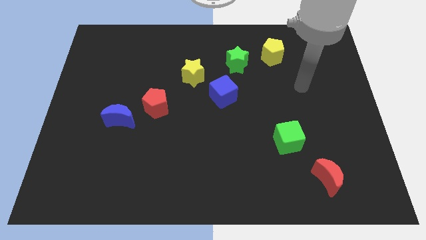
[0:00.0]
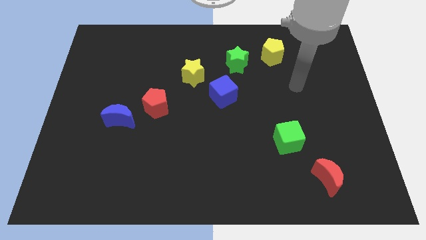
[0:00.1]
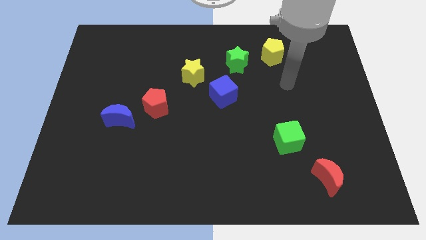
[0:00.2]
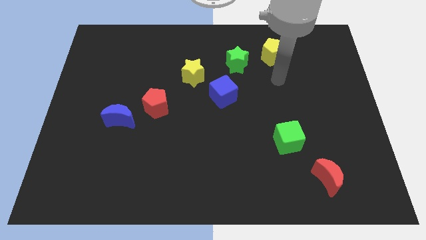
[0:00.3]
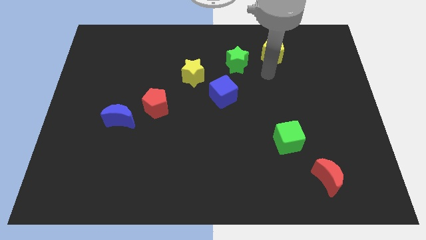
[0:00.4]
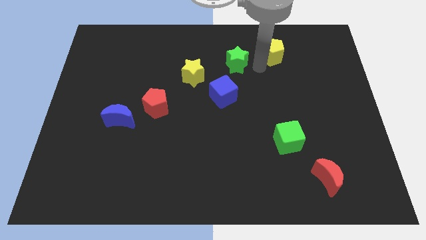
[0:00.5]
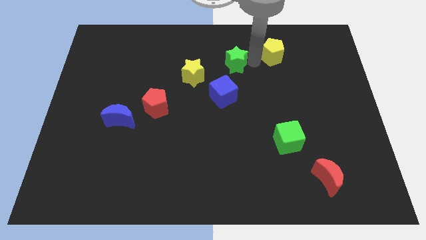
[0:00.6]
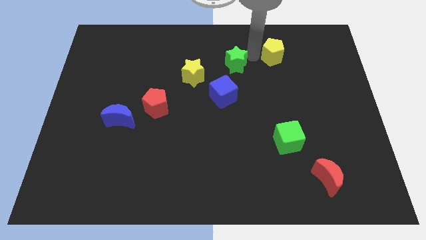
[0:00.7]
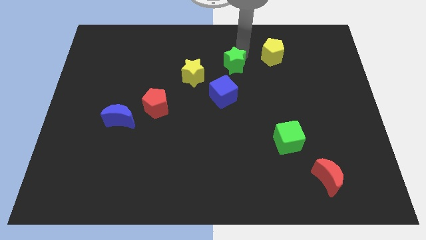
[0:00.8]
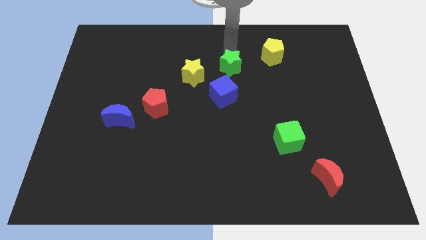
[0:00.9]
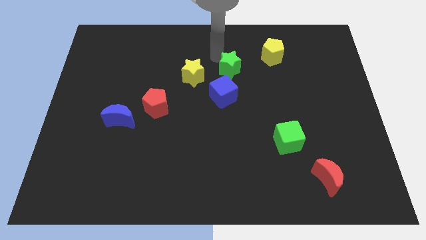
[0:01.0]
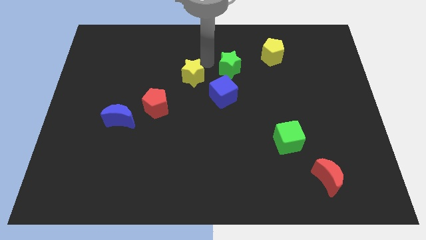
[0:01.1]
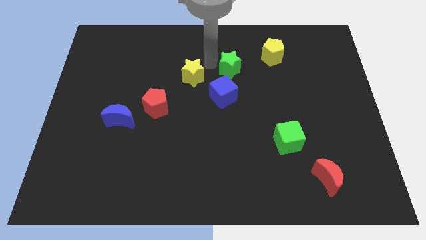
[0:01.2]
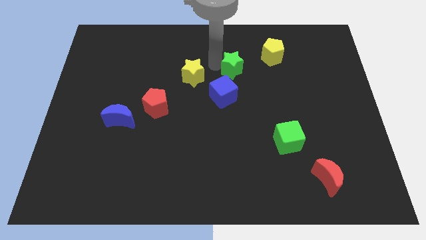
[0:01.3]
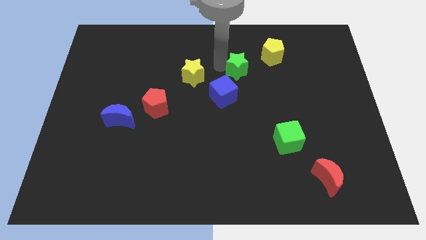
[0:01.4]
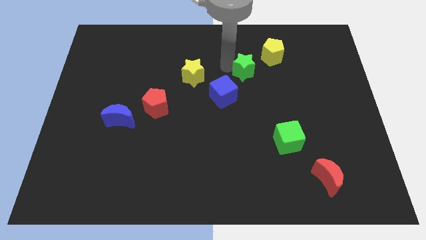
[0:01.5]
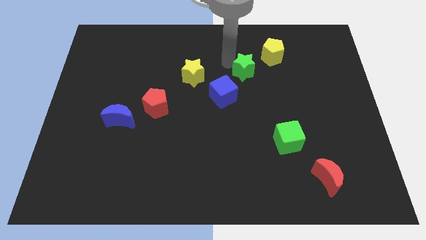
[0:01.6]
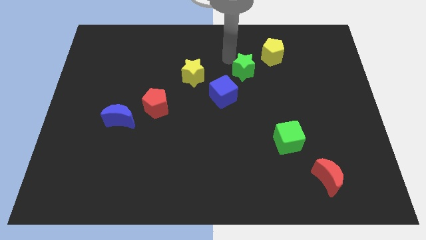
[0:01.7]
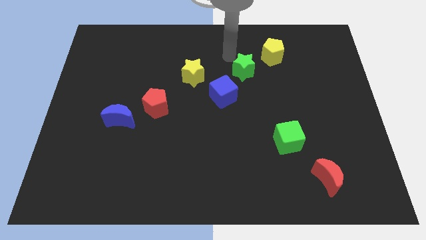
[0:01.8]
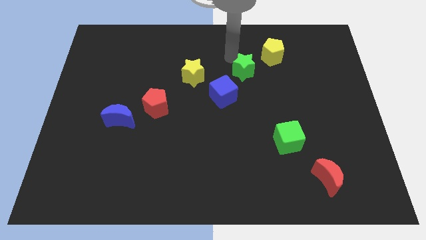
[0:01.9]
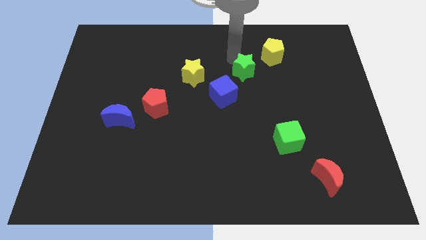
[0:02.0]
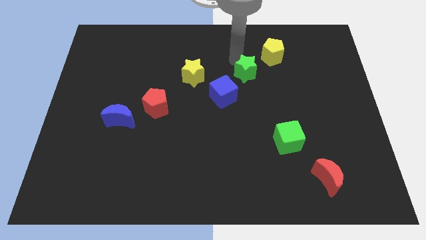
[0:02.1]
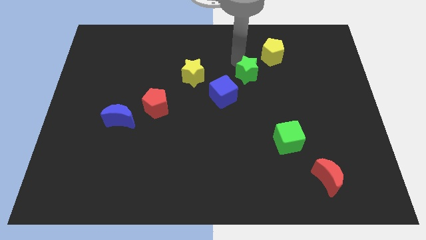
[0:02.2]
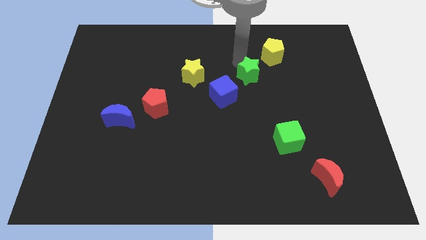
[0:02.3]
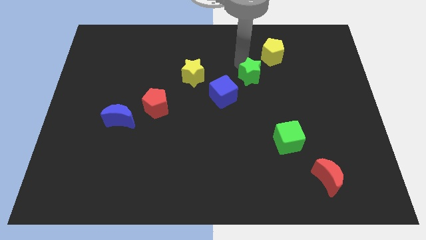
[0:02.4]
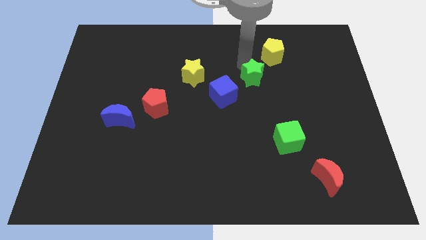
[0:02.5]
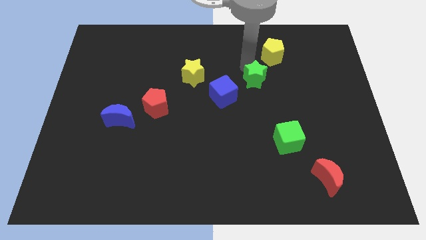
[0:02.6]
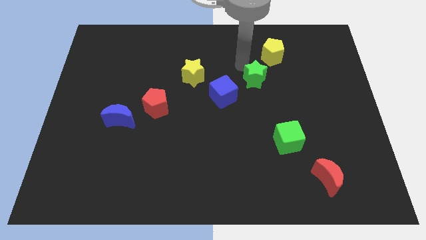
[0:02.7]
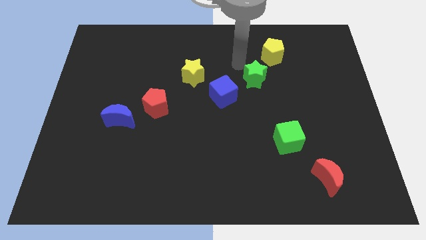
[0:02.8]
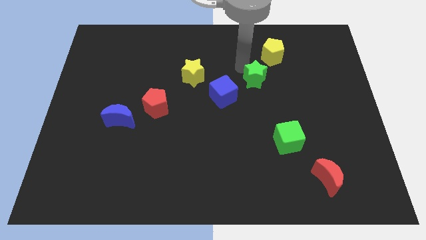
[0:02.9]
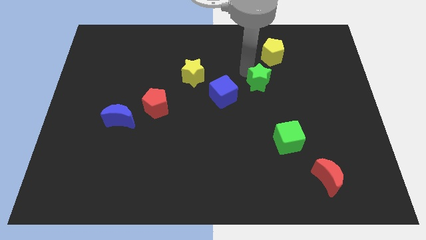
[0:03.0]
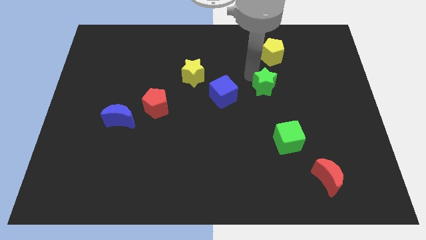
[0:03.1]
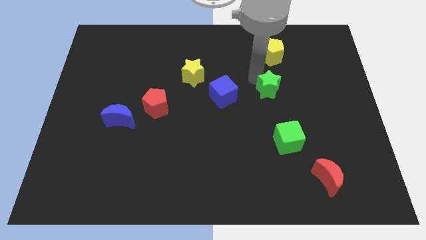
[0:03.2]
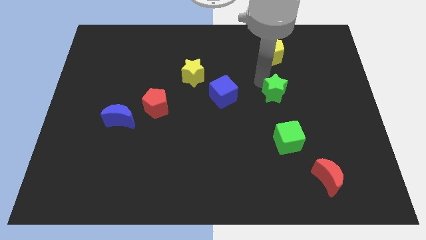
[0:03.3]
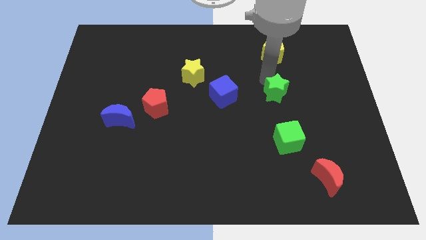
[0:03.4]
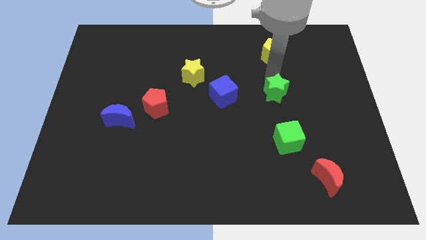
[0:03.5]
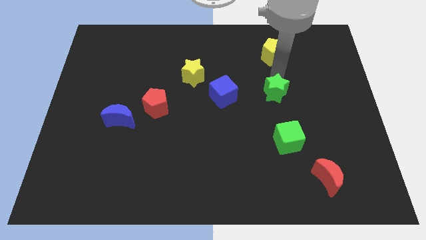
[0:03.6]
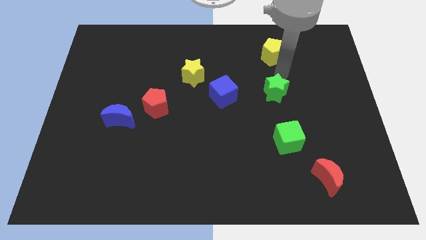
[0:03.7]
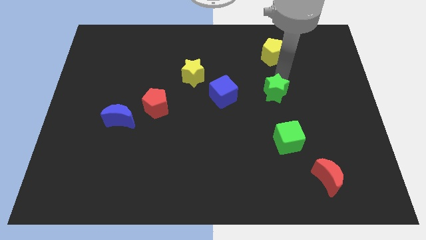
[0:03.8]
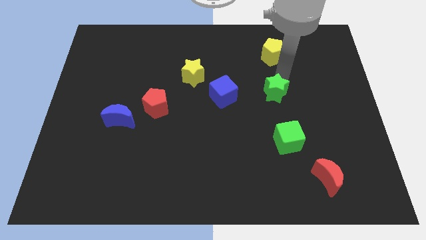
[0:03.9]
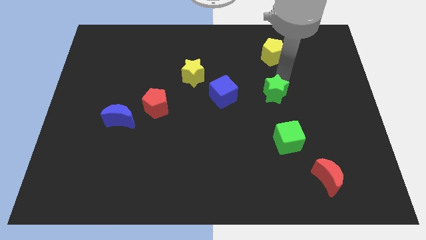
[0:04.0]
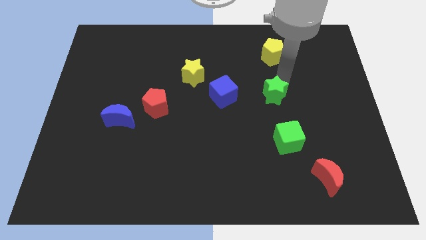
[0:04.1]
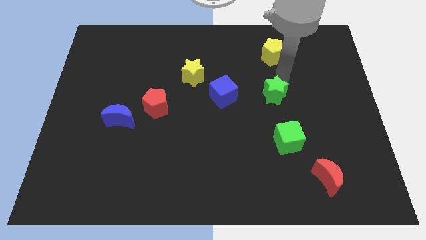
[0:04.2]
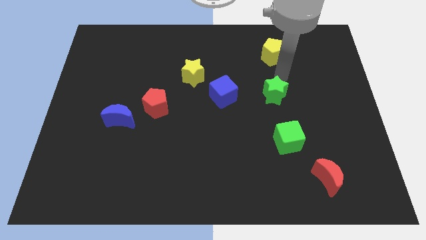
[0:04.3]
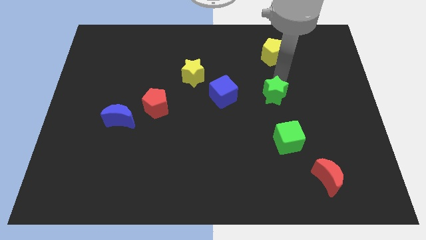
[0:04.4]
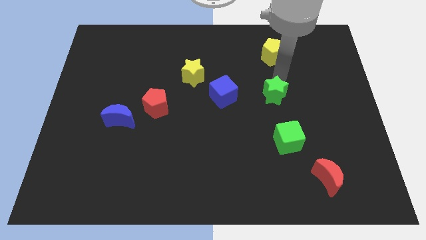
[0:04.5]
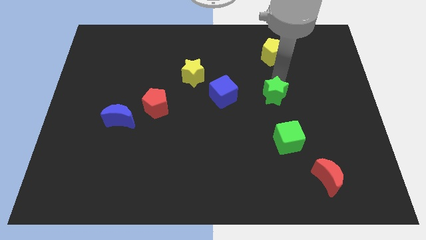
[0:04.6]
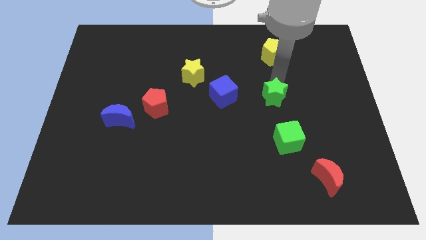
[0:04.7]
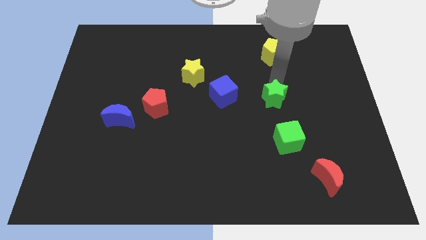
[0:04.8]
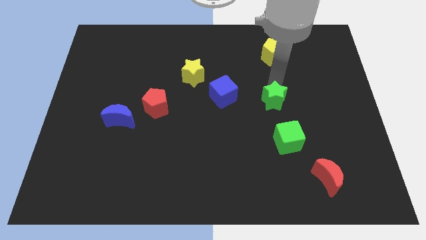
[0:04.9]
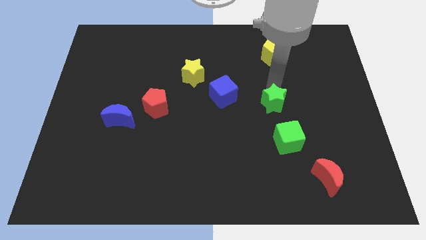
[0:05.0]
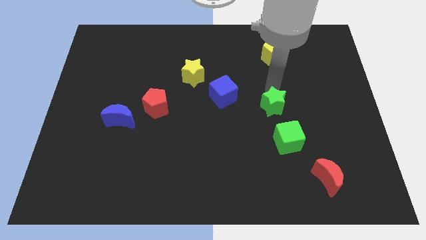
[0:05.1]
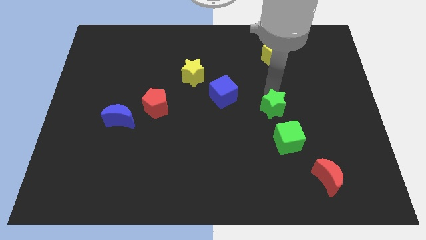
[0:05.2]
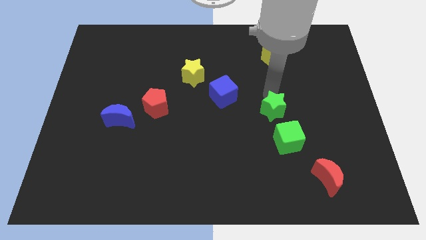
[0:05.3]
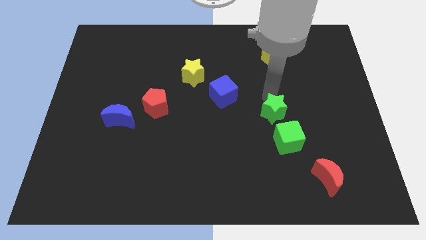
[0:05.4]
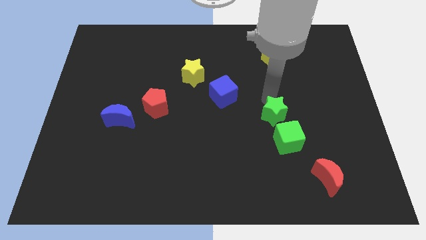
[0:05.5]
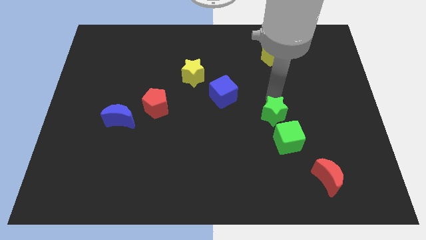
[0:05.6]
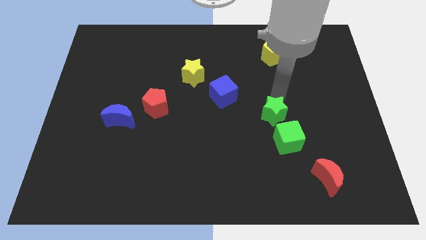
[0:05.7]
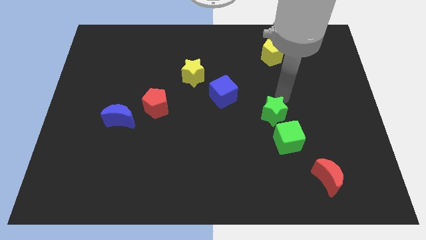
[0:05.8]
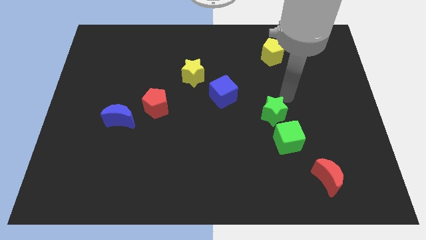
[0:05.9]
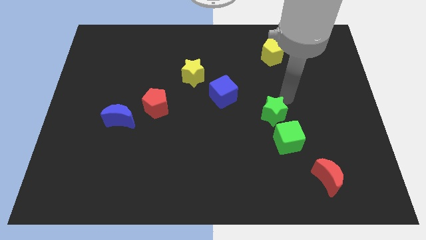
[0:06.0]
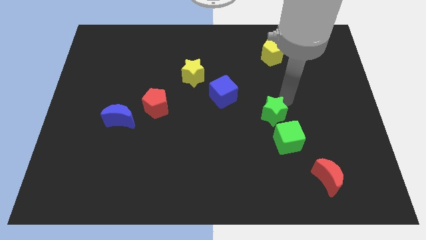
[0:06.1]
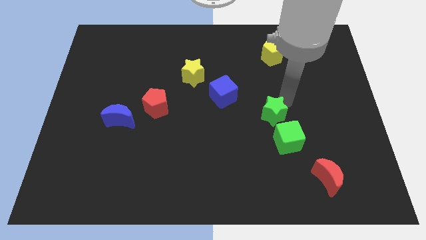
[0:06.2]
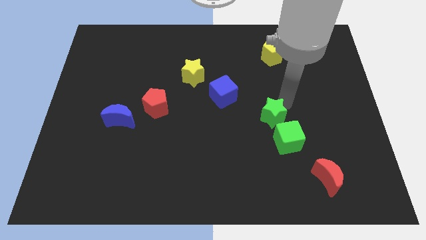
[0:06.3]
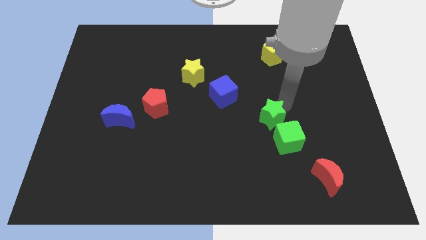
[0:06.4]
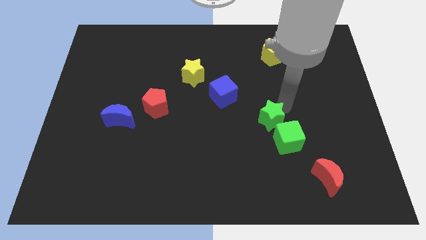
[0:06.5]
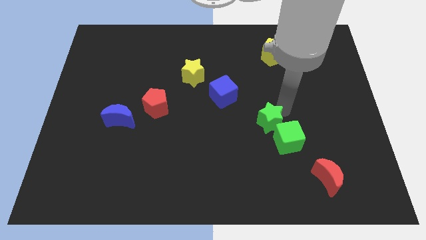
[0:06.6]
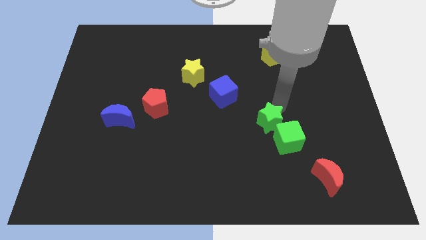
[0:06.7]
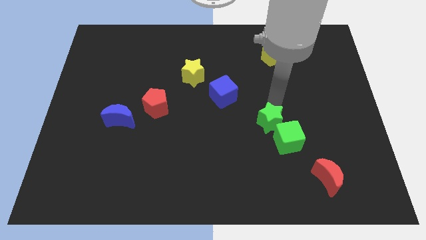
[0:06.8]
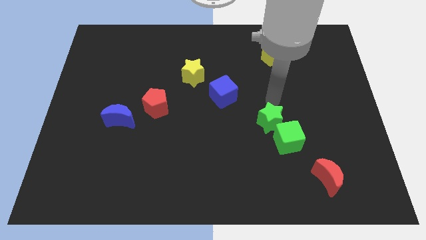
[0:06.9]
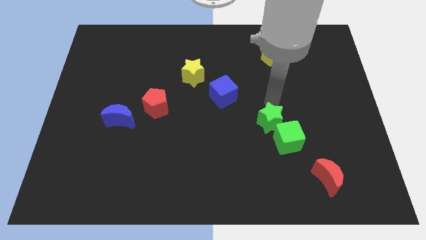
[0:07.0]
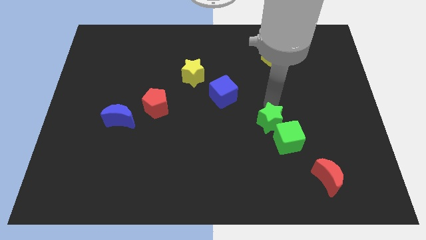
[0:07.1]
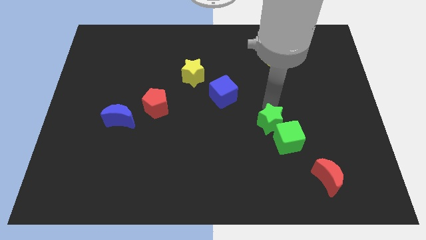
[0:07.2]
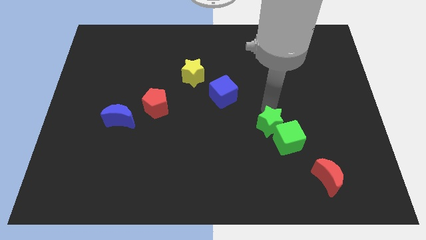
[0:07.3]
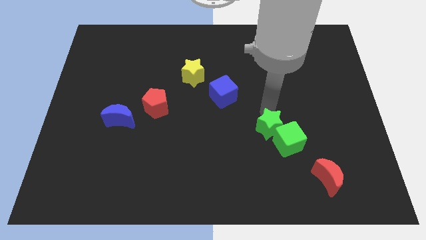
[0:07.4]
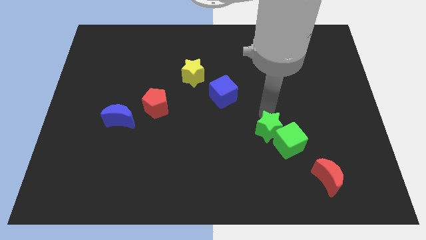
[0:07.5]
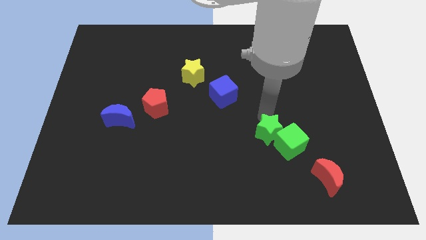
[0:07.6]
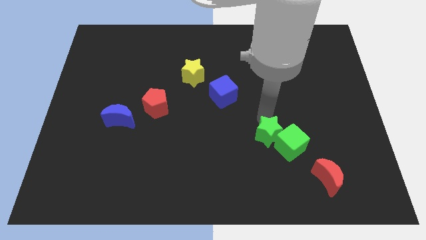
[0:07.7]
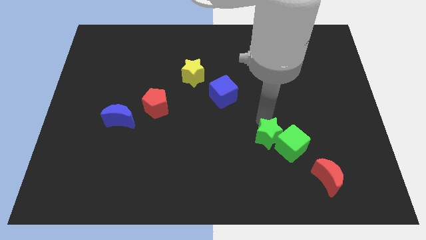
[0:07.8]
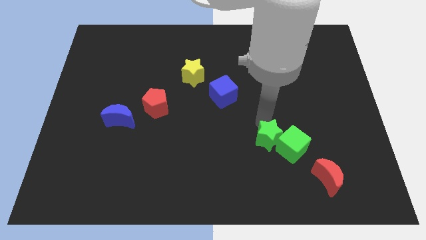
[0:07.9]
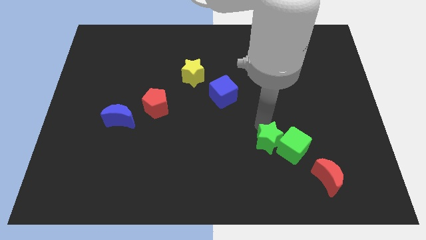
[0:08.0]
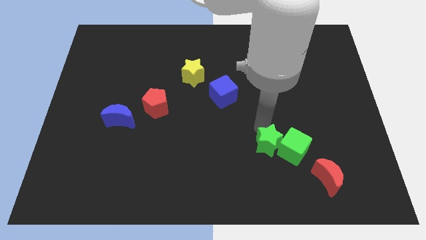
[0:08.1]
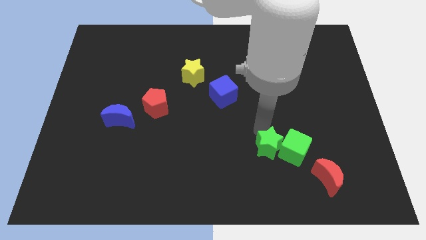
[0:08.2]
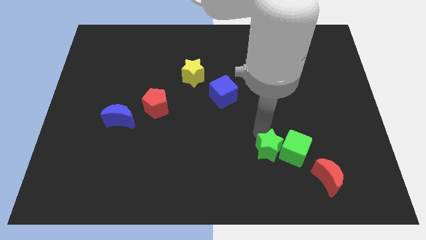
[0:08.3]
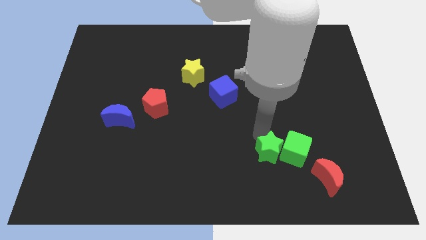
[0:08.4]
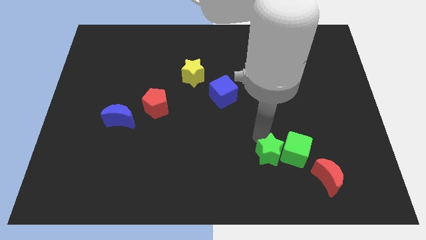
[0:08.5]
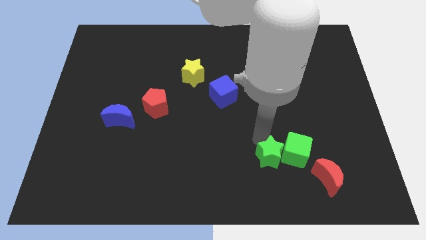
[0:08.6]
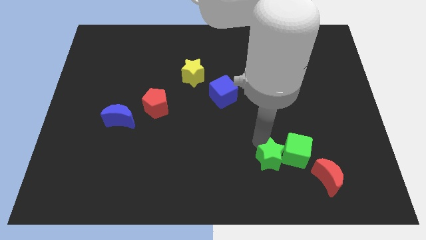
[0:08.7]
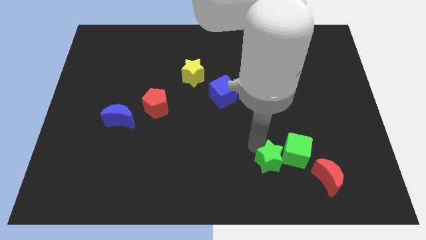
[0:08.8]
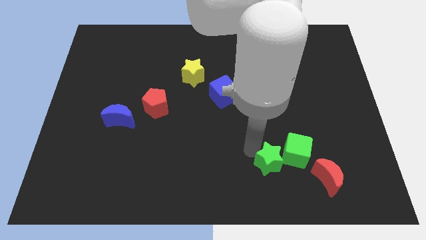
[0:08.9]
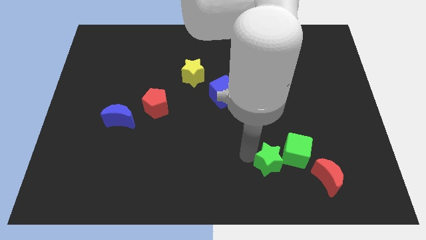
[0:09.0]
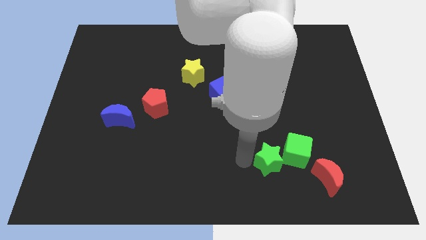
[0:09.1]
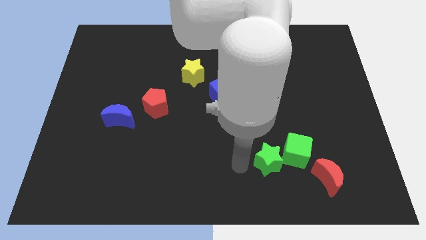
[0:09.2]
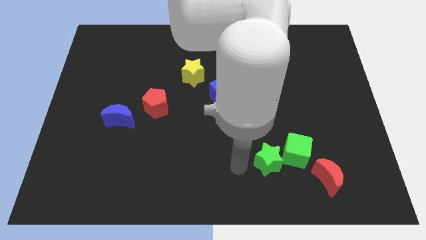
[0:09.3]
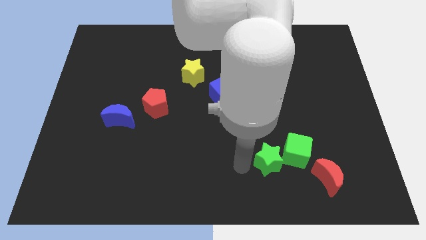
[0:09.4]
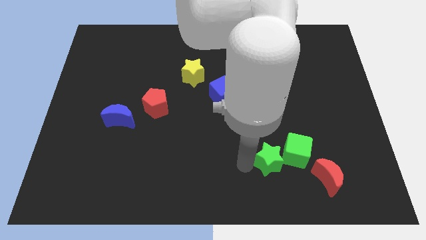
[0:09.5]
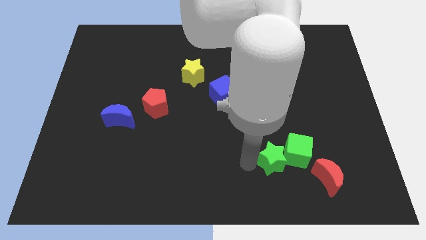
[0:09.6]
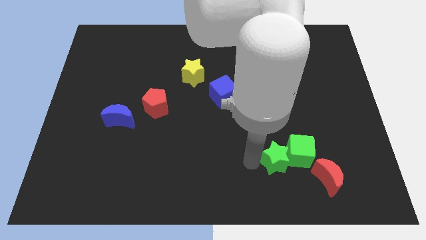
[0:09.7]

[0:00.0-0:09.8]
move the green star to the top left of the red moon
